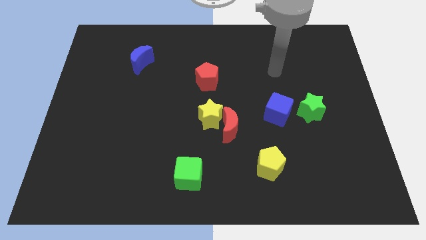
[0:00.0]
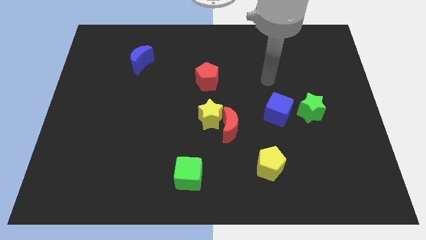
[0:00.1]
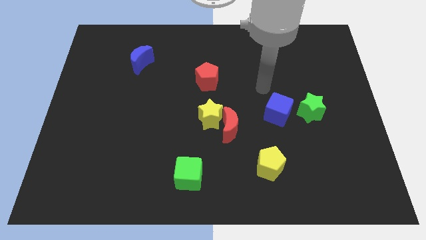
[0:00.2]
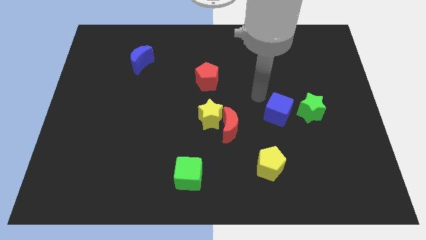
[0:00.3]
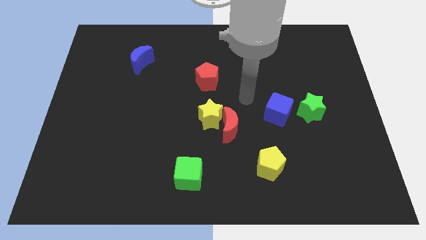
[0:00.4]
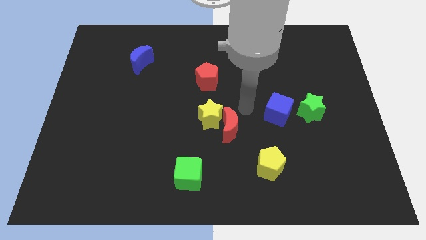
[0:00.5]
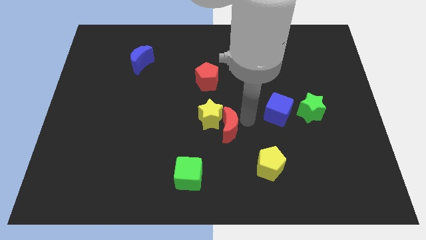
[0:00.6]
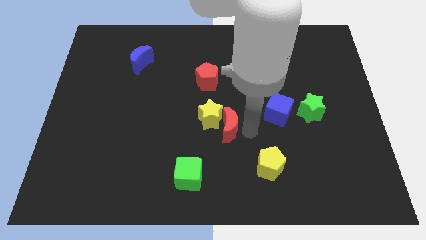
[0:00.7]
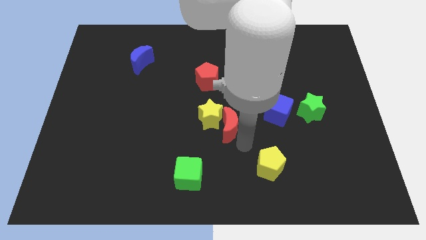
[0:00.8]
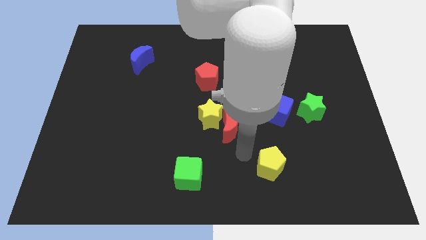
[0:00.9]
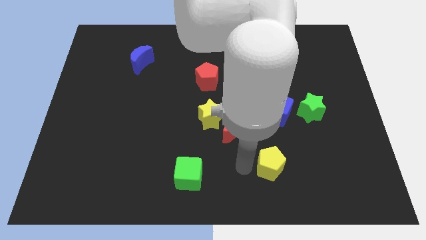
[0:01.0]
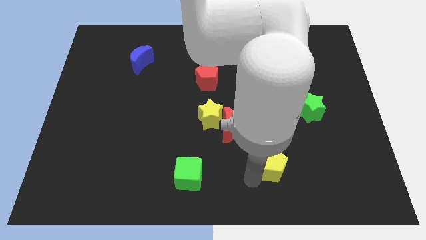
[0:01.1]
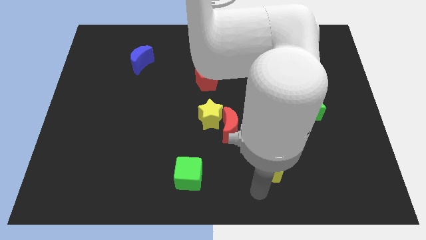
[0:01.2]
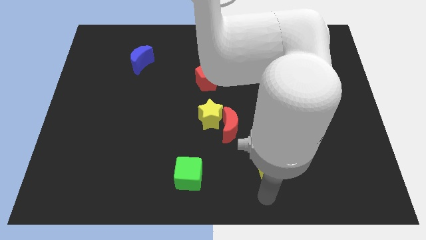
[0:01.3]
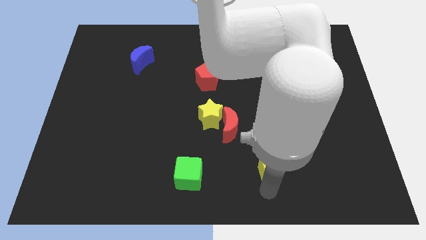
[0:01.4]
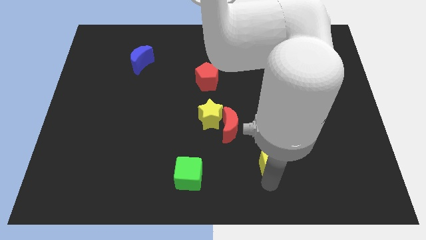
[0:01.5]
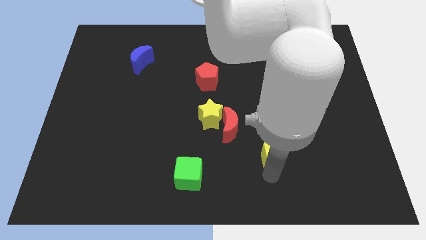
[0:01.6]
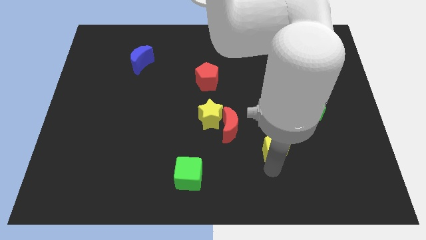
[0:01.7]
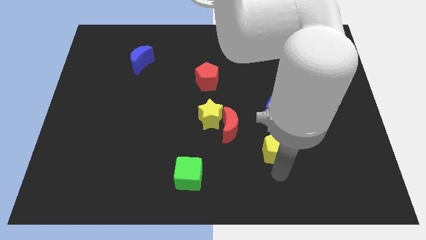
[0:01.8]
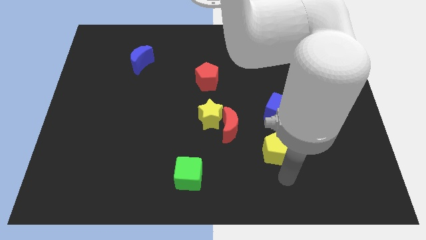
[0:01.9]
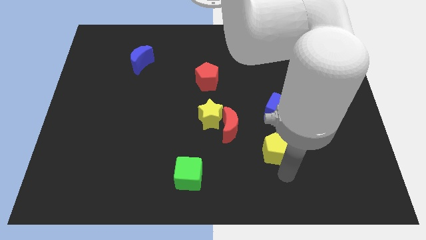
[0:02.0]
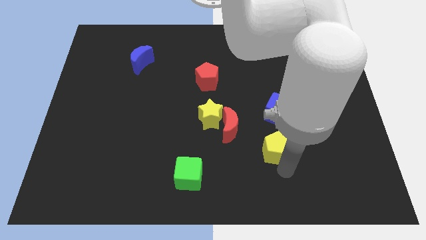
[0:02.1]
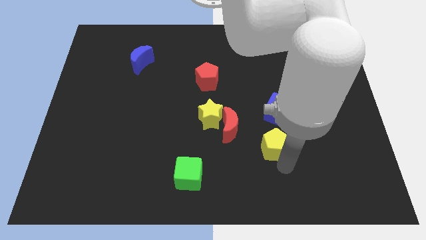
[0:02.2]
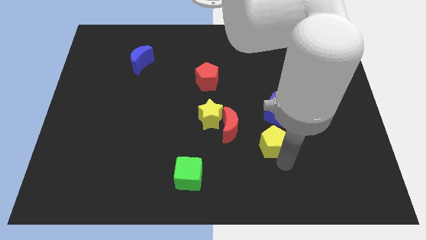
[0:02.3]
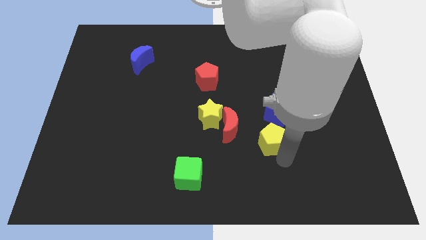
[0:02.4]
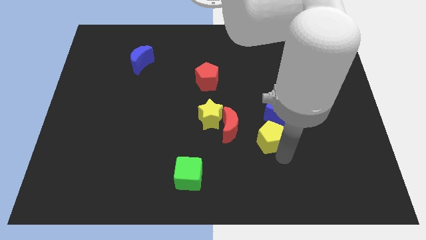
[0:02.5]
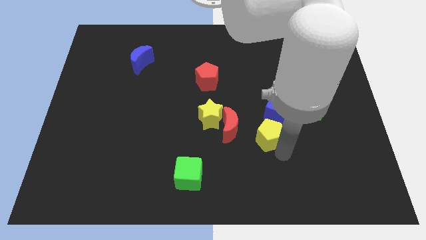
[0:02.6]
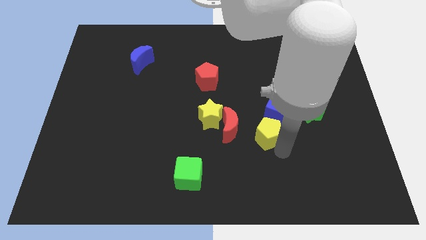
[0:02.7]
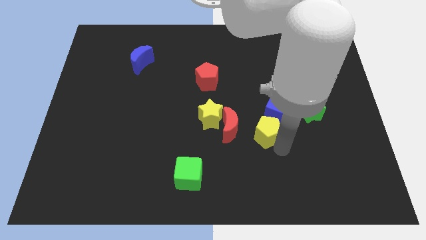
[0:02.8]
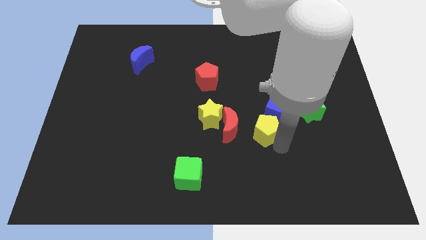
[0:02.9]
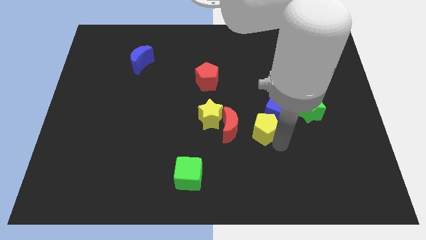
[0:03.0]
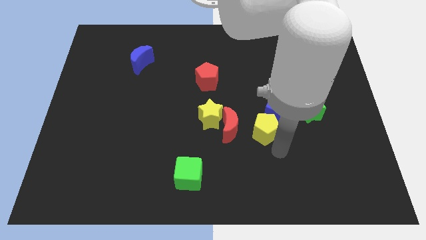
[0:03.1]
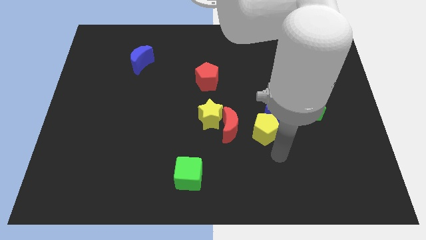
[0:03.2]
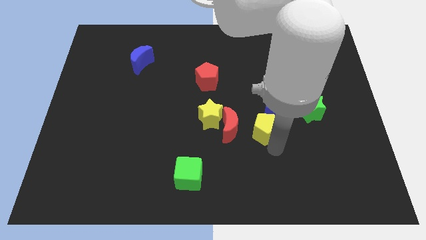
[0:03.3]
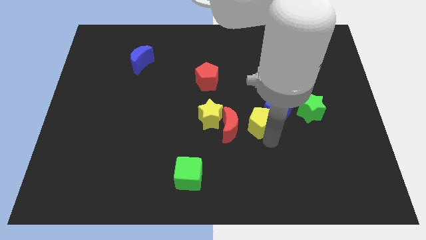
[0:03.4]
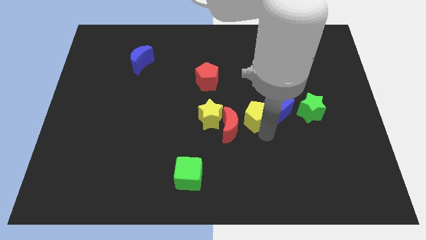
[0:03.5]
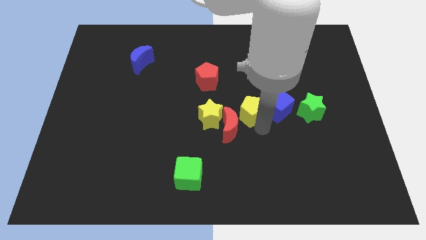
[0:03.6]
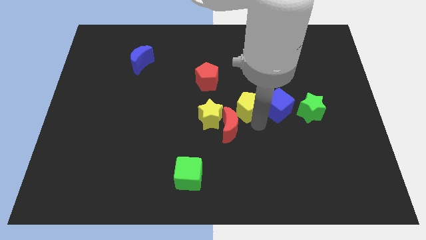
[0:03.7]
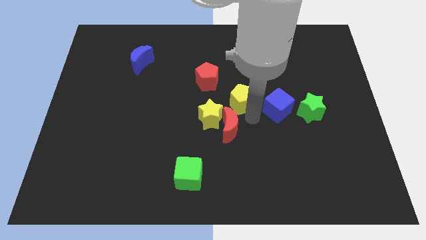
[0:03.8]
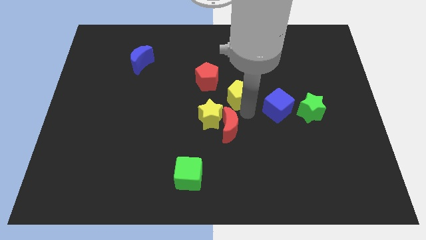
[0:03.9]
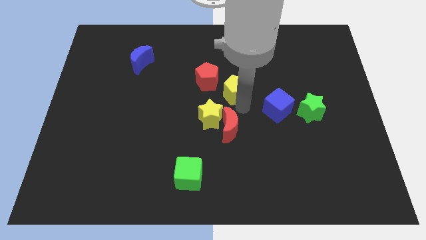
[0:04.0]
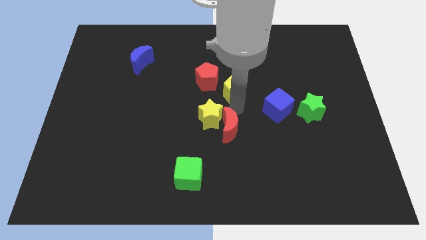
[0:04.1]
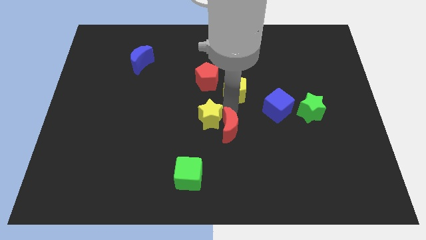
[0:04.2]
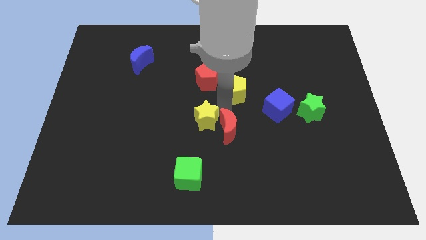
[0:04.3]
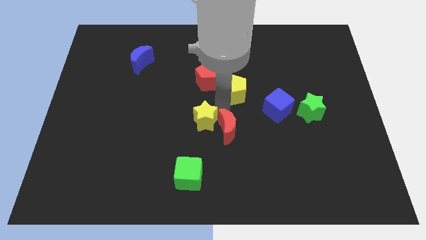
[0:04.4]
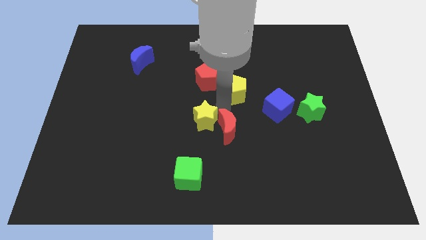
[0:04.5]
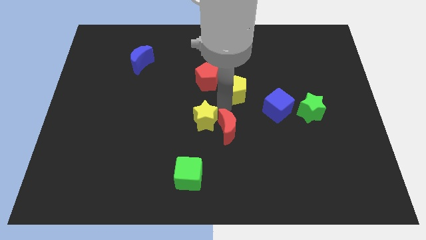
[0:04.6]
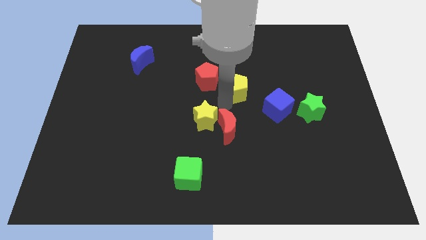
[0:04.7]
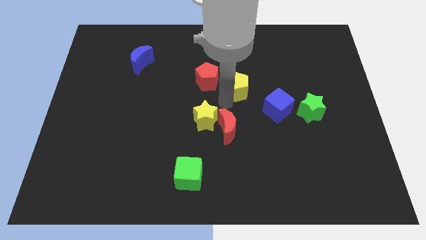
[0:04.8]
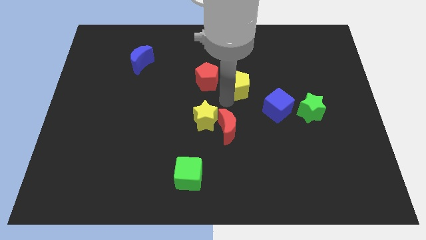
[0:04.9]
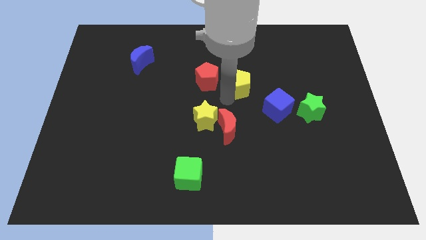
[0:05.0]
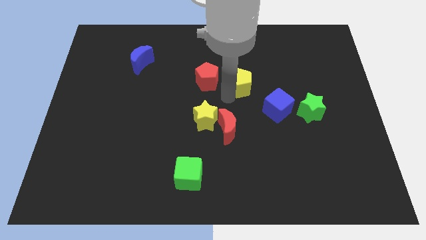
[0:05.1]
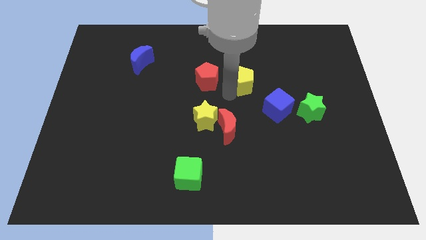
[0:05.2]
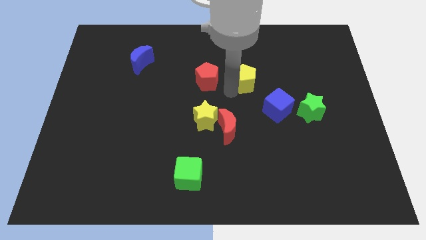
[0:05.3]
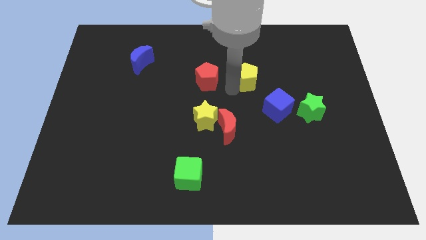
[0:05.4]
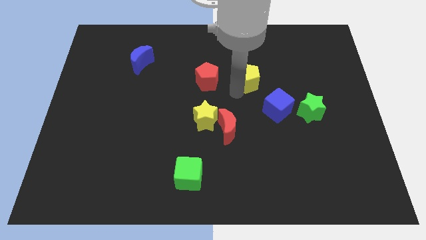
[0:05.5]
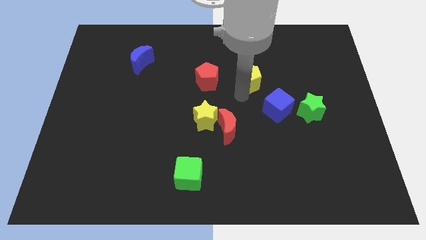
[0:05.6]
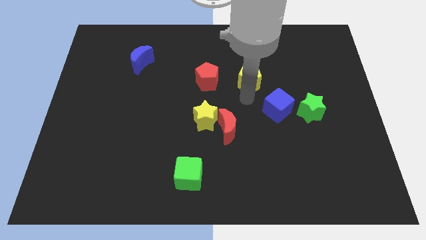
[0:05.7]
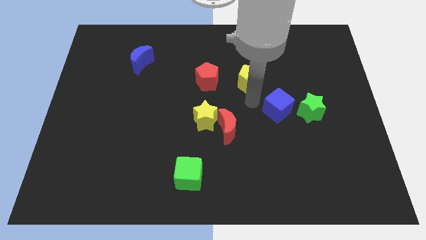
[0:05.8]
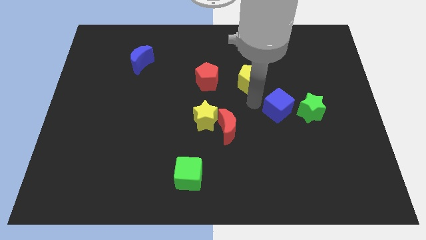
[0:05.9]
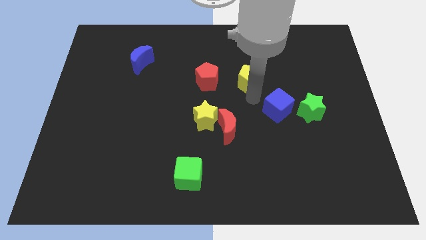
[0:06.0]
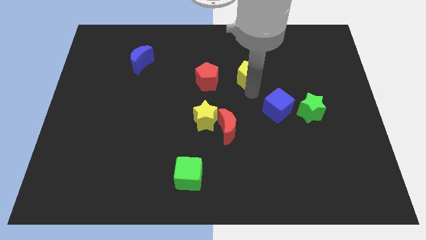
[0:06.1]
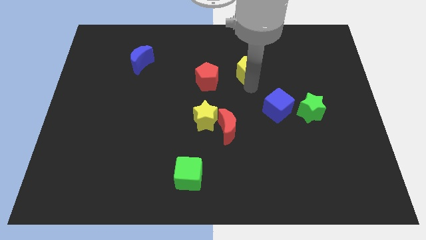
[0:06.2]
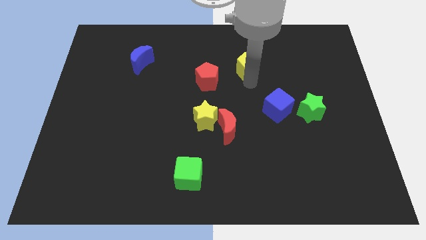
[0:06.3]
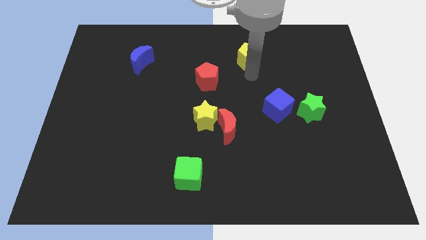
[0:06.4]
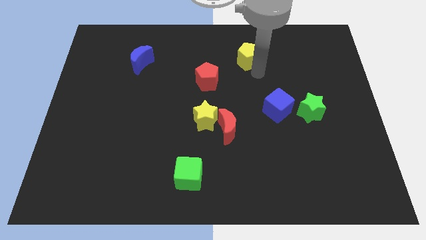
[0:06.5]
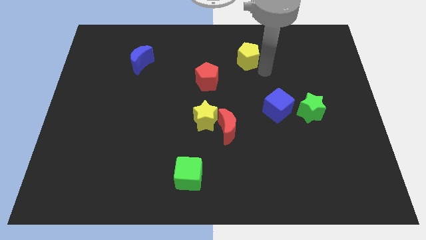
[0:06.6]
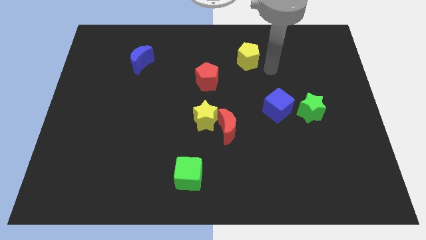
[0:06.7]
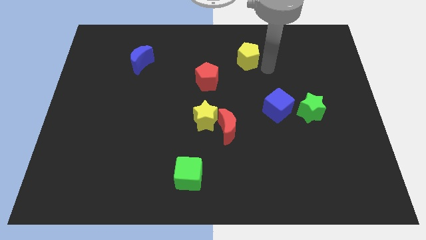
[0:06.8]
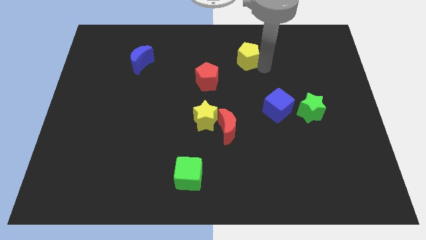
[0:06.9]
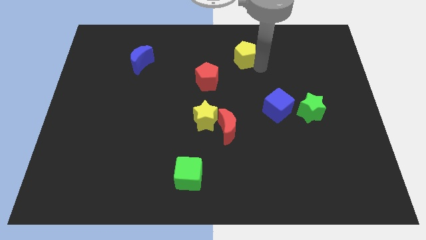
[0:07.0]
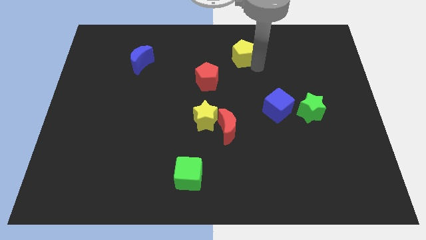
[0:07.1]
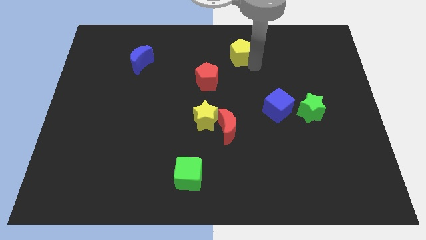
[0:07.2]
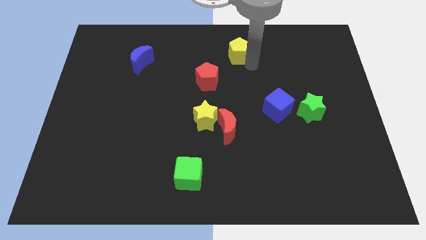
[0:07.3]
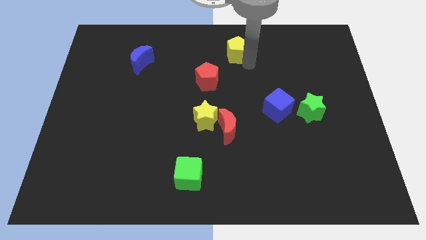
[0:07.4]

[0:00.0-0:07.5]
put the yellow pentagon to the towards your base

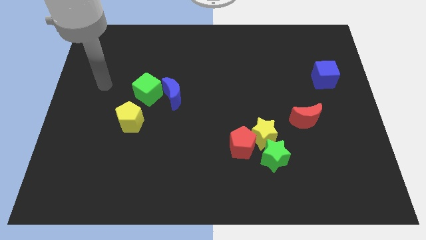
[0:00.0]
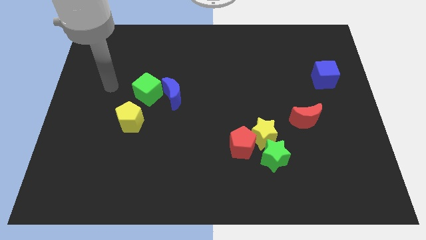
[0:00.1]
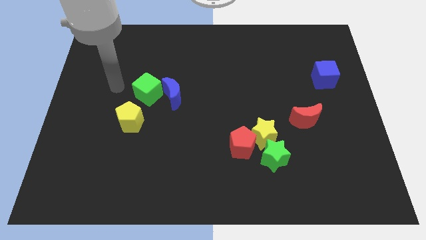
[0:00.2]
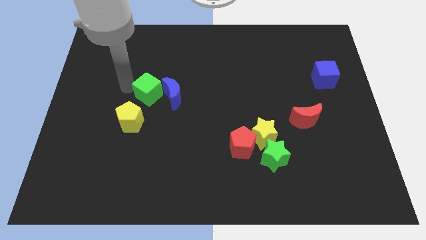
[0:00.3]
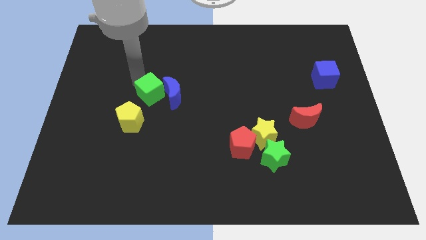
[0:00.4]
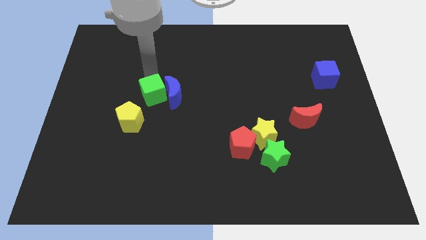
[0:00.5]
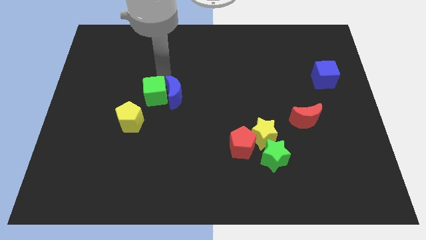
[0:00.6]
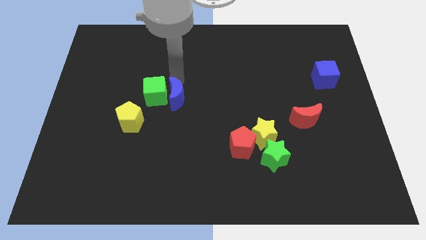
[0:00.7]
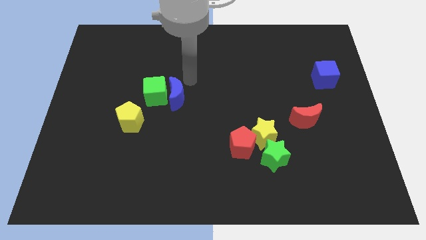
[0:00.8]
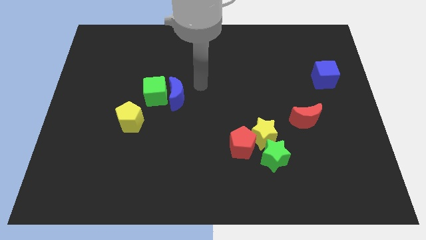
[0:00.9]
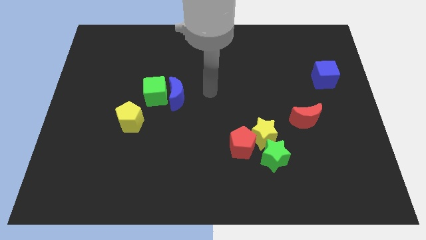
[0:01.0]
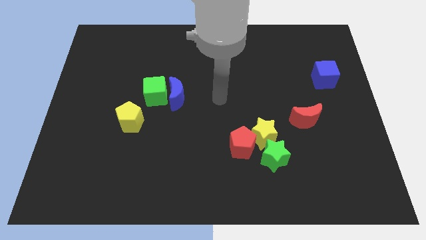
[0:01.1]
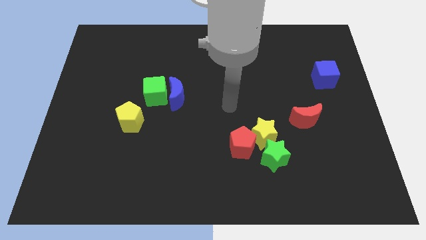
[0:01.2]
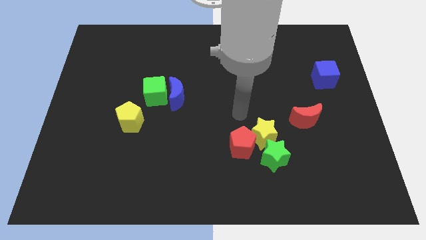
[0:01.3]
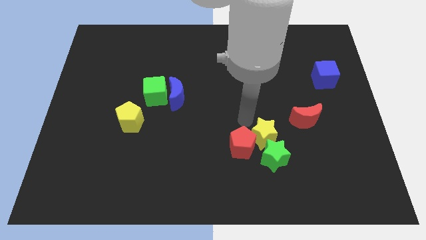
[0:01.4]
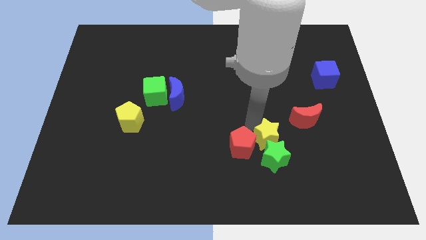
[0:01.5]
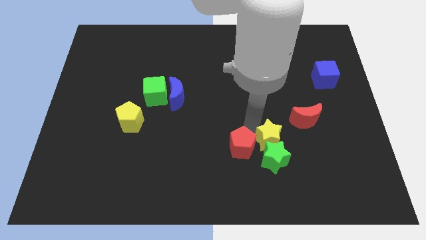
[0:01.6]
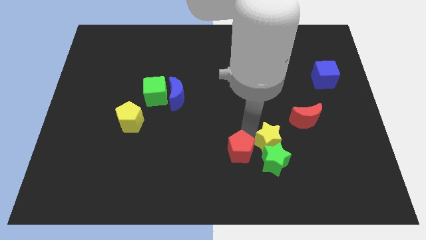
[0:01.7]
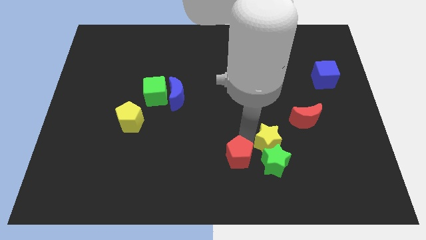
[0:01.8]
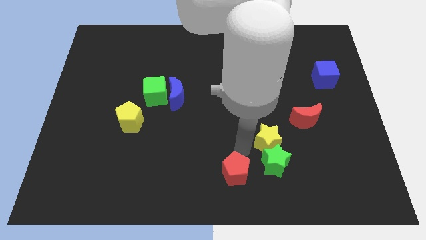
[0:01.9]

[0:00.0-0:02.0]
push the red pentagon to the bottom
